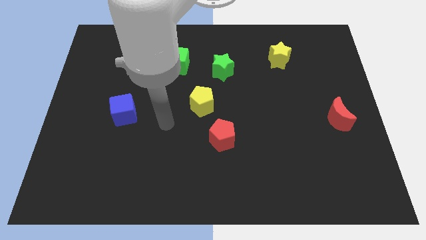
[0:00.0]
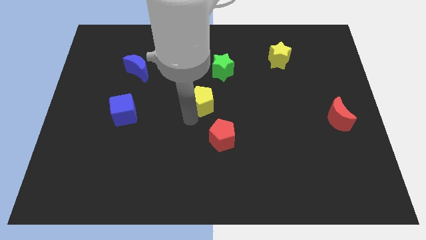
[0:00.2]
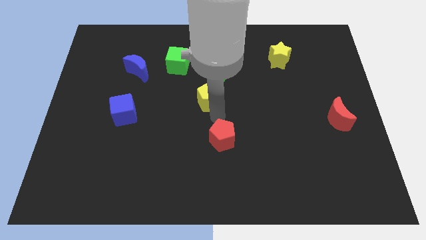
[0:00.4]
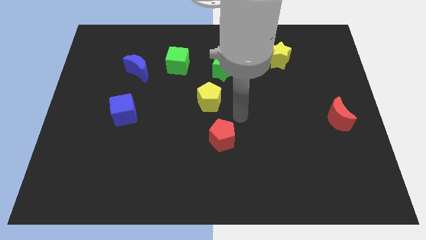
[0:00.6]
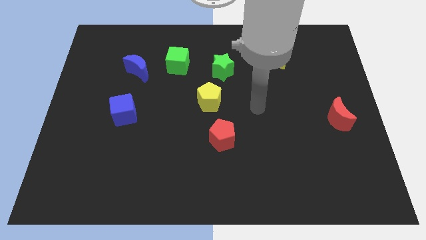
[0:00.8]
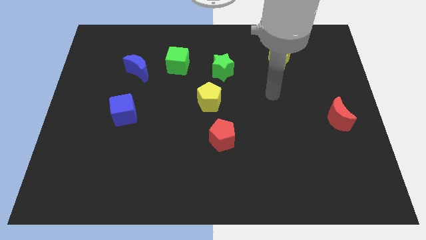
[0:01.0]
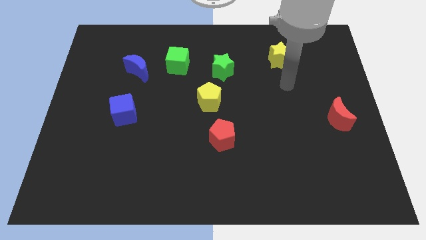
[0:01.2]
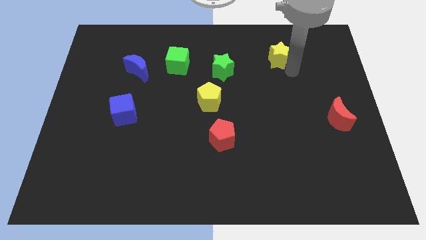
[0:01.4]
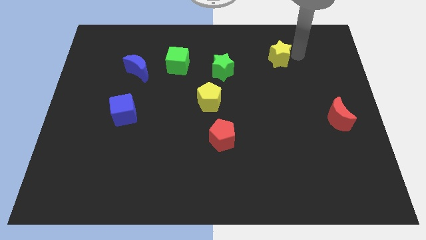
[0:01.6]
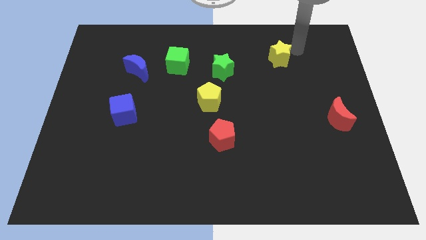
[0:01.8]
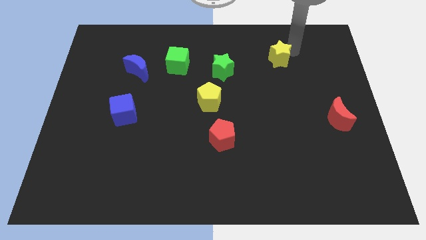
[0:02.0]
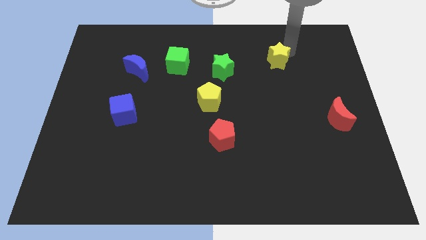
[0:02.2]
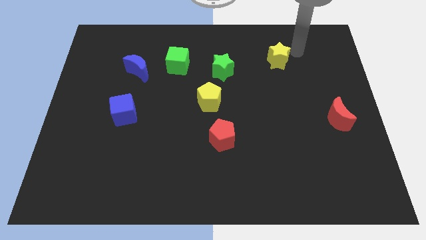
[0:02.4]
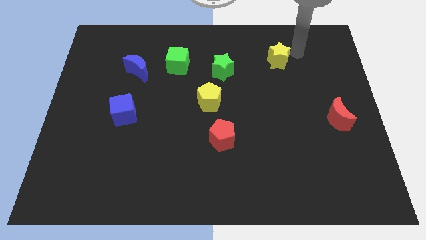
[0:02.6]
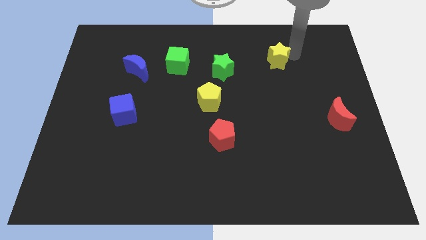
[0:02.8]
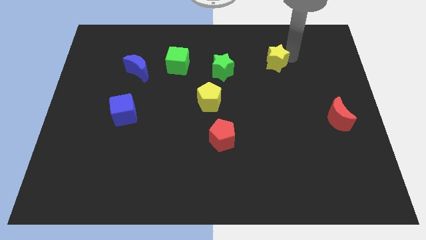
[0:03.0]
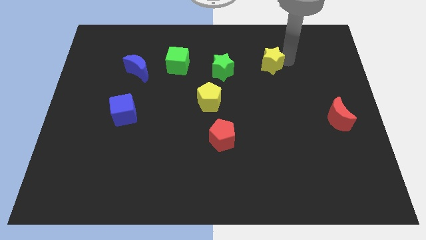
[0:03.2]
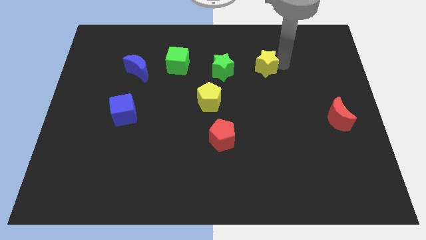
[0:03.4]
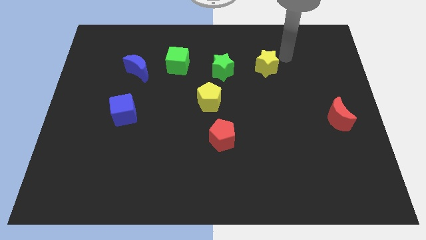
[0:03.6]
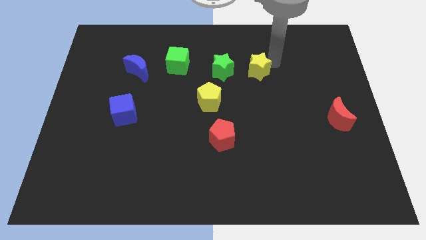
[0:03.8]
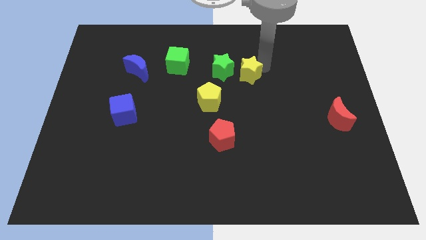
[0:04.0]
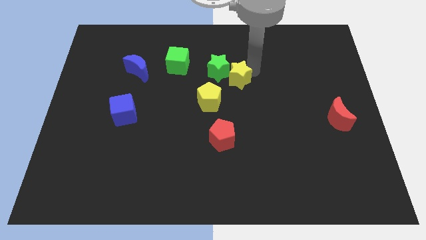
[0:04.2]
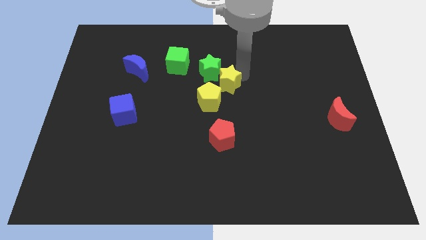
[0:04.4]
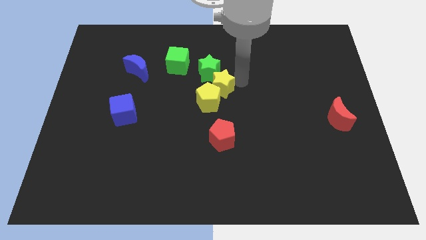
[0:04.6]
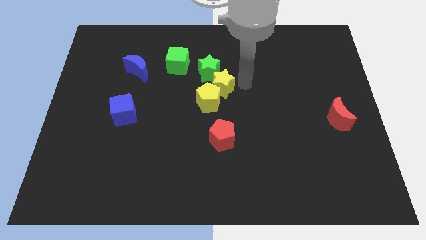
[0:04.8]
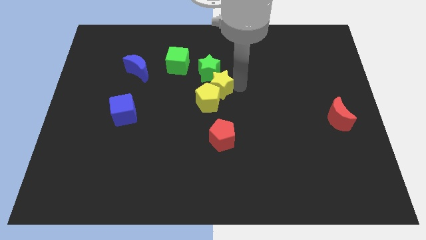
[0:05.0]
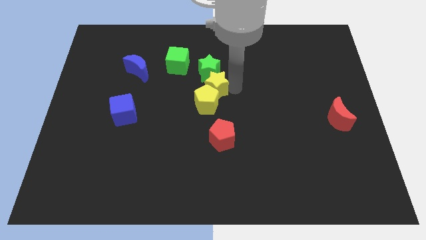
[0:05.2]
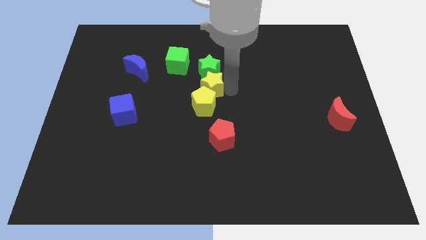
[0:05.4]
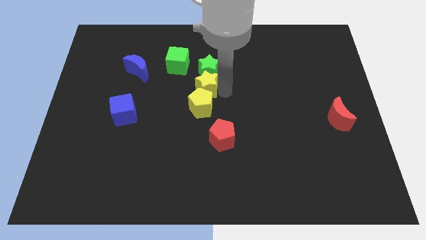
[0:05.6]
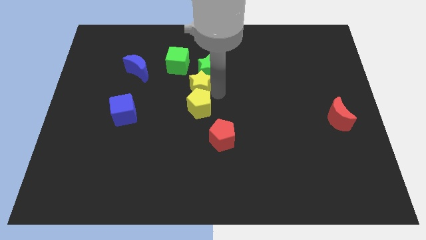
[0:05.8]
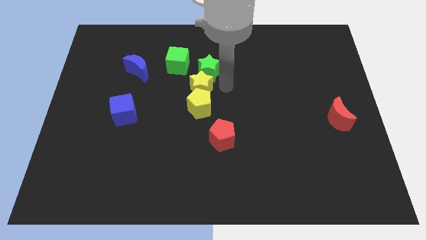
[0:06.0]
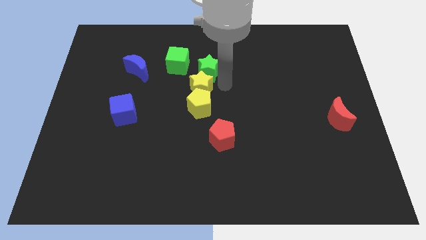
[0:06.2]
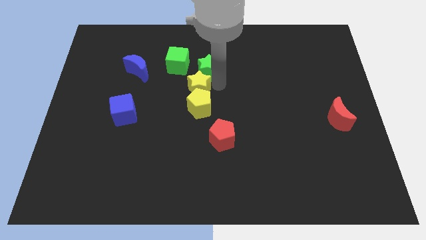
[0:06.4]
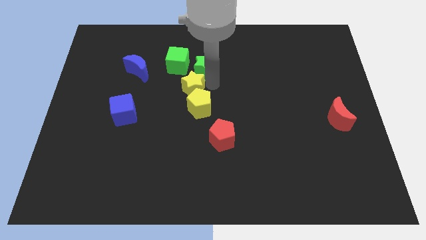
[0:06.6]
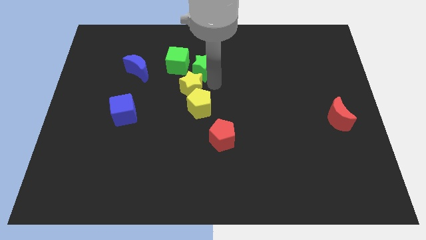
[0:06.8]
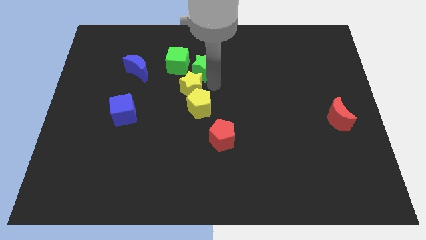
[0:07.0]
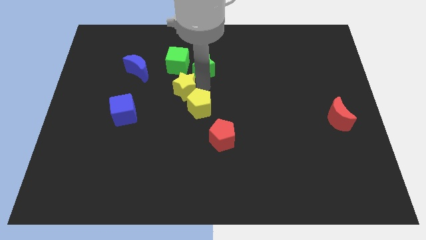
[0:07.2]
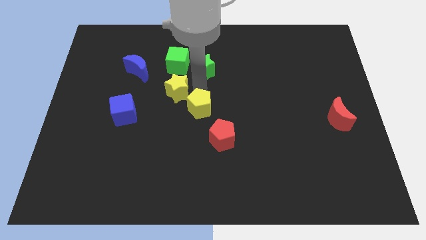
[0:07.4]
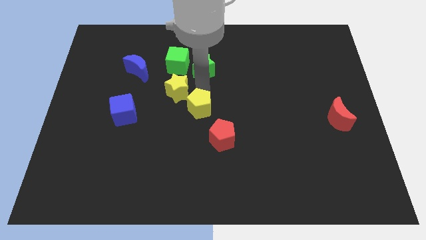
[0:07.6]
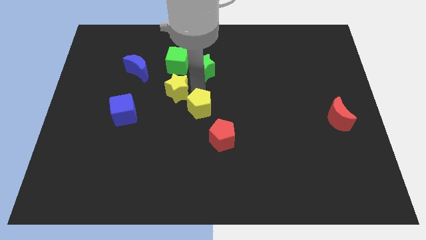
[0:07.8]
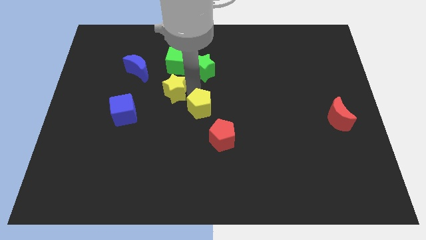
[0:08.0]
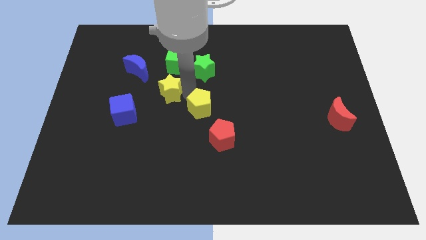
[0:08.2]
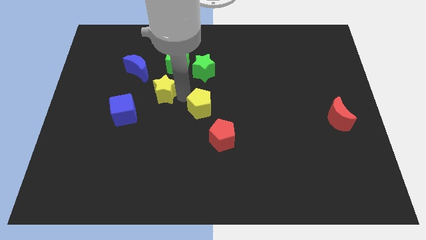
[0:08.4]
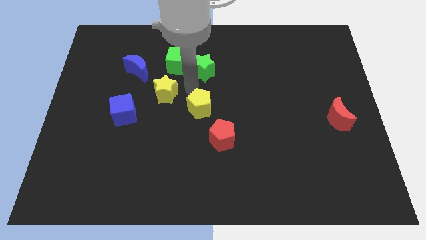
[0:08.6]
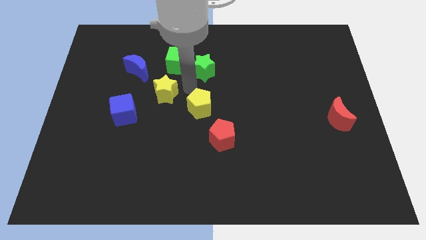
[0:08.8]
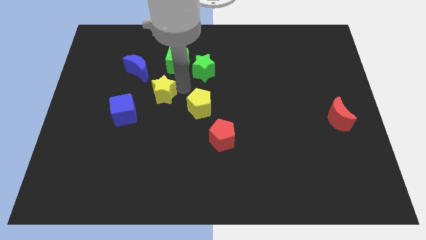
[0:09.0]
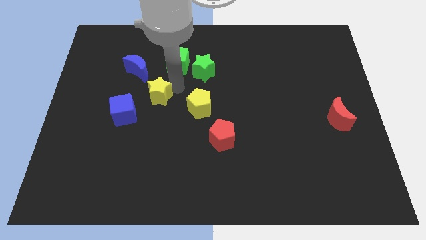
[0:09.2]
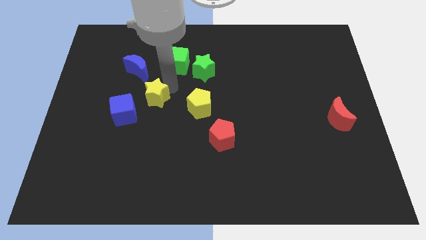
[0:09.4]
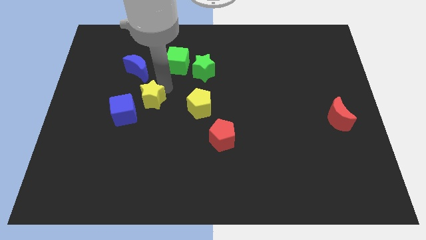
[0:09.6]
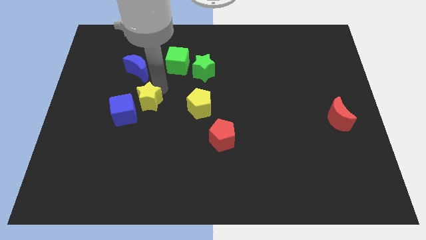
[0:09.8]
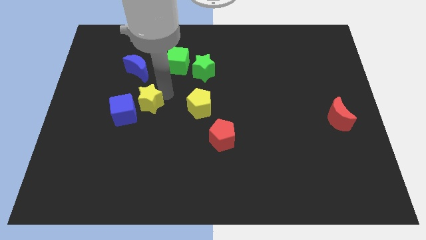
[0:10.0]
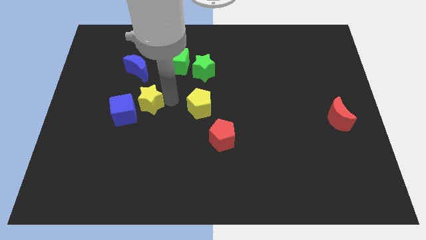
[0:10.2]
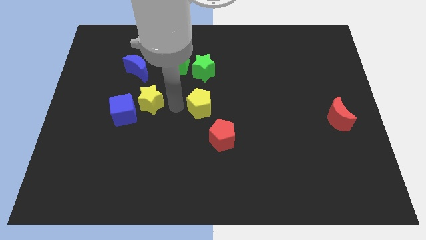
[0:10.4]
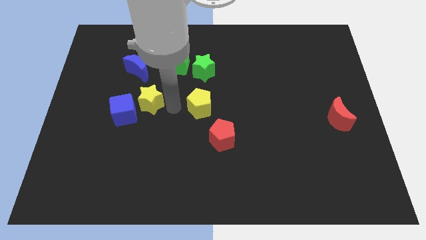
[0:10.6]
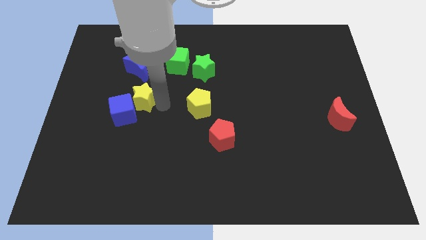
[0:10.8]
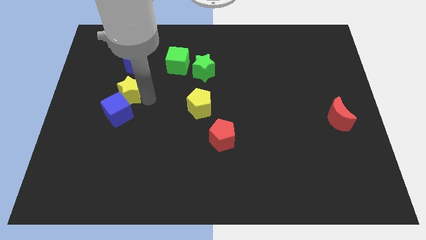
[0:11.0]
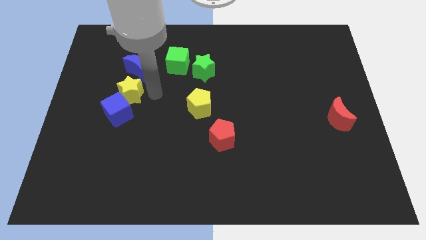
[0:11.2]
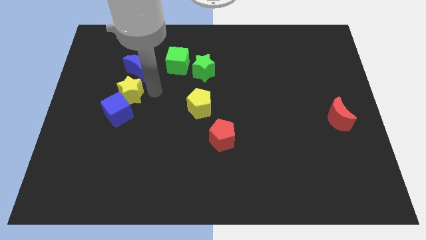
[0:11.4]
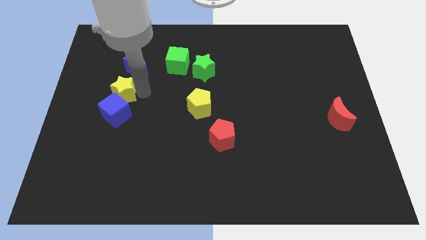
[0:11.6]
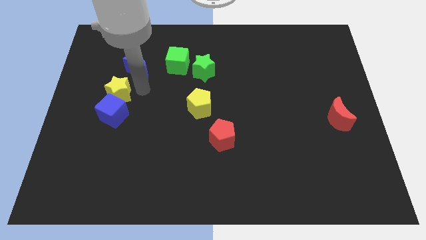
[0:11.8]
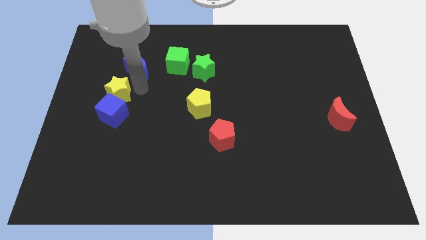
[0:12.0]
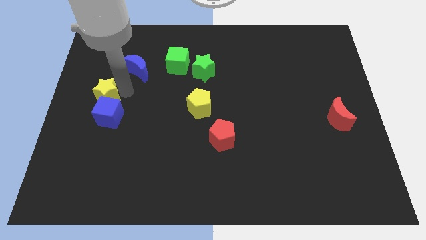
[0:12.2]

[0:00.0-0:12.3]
push the yellow star to the left side

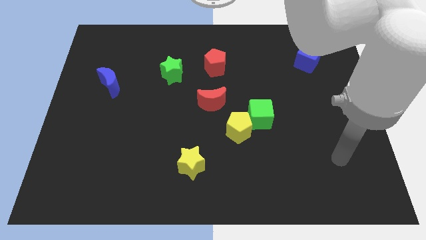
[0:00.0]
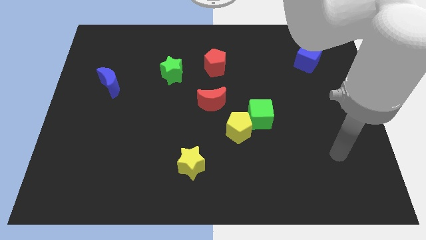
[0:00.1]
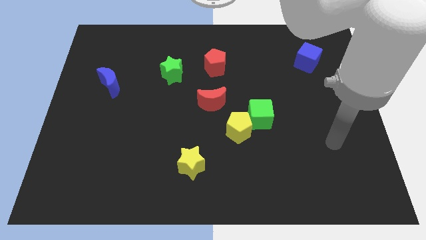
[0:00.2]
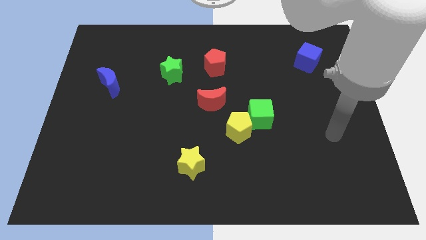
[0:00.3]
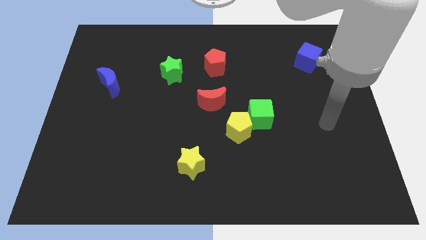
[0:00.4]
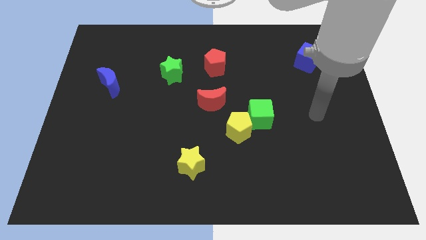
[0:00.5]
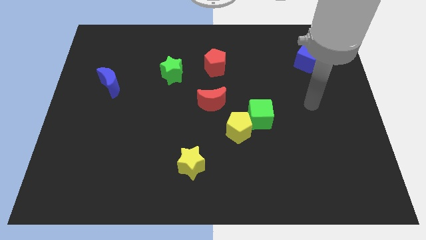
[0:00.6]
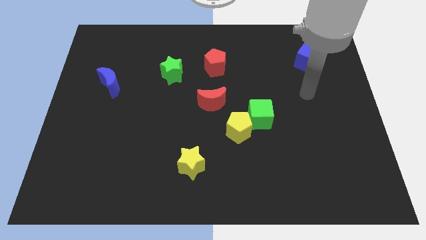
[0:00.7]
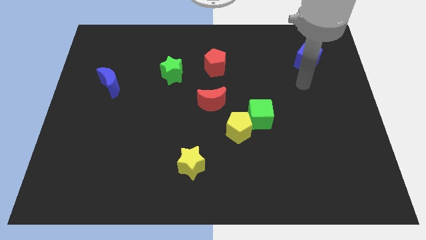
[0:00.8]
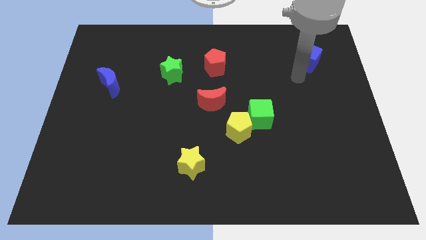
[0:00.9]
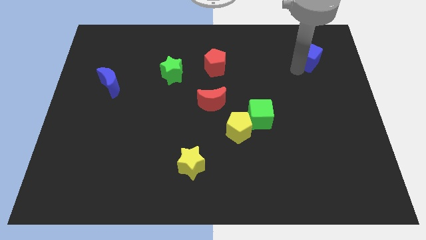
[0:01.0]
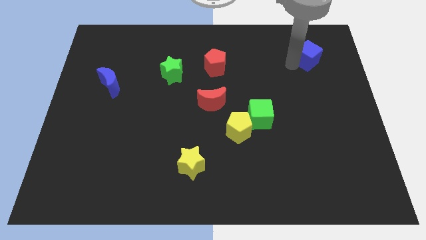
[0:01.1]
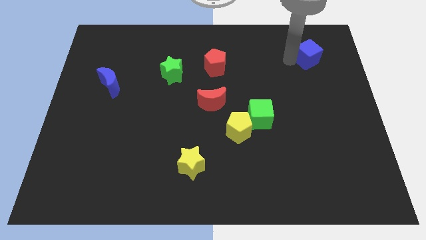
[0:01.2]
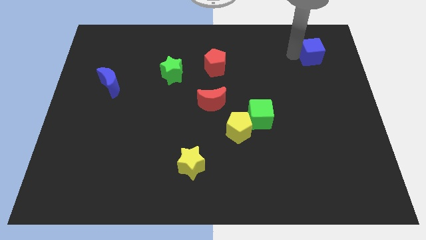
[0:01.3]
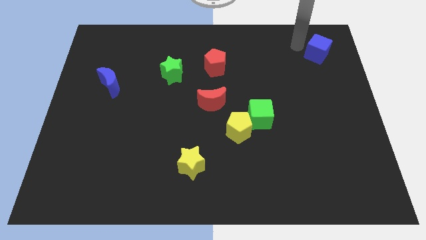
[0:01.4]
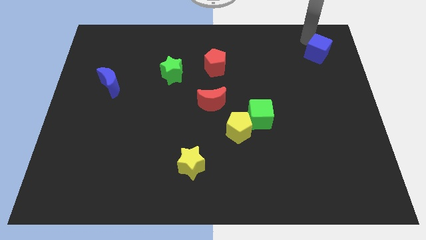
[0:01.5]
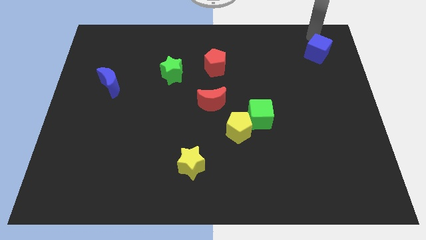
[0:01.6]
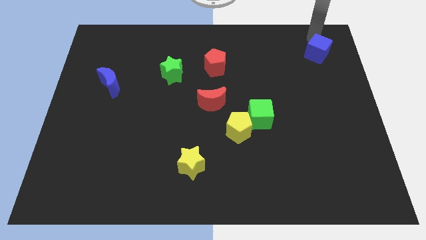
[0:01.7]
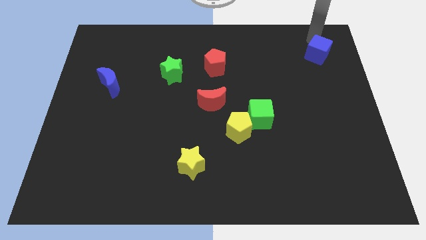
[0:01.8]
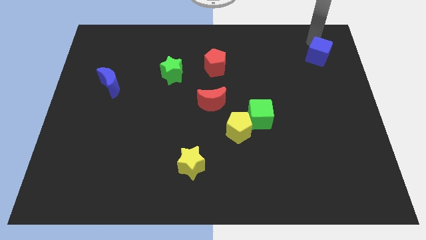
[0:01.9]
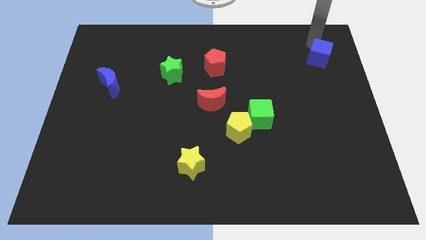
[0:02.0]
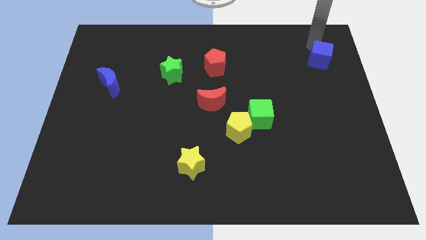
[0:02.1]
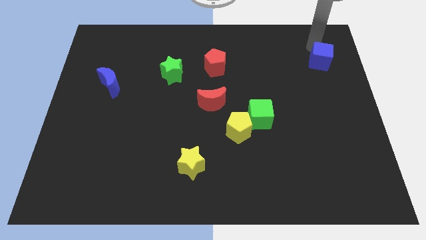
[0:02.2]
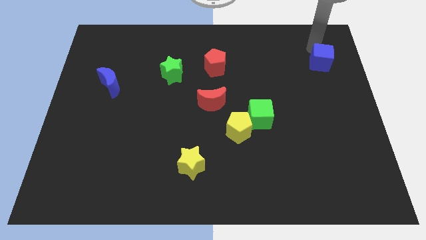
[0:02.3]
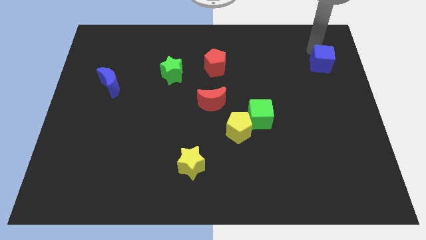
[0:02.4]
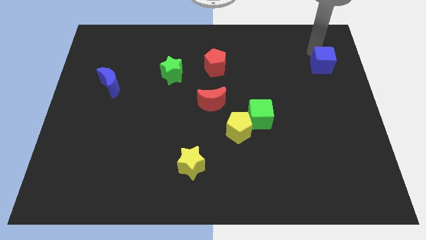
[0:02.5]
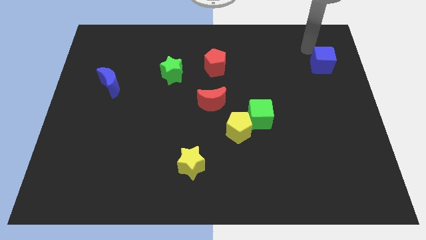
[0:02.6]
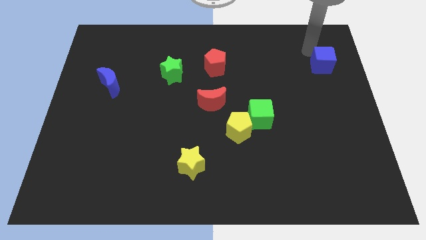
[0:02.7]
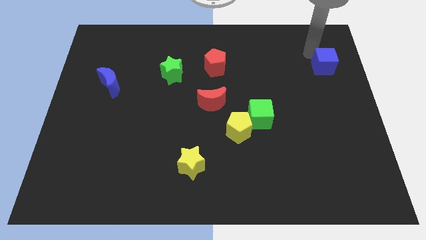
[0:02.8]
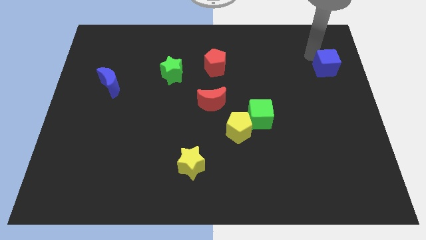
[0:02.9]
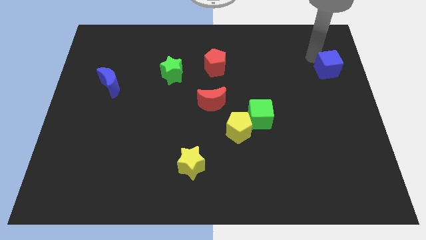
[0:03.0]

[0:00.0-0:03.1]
put the blue cube to the right side of the board
